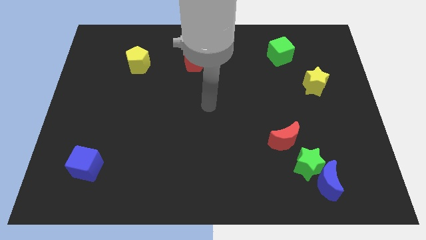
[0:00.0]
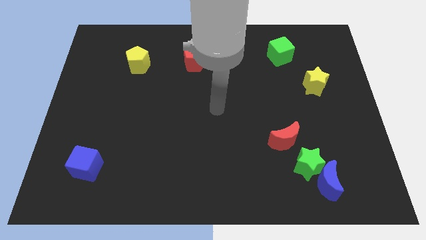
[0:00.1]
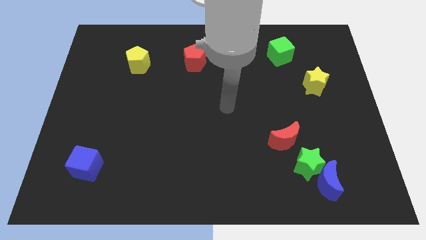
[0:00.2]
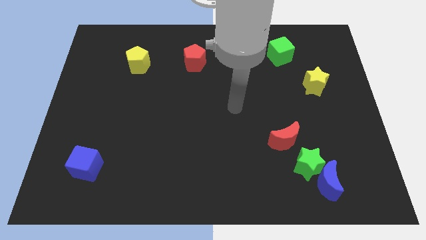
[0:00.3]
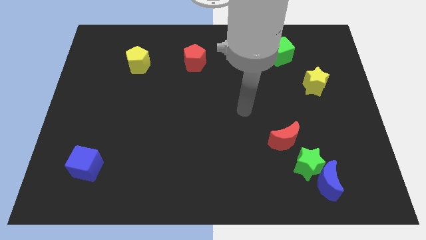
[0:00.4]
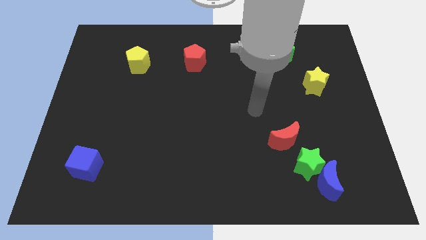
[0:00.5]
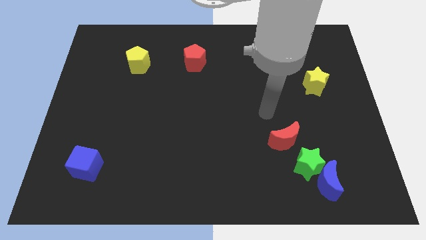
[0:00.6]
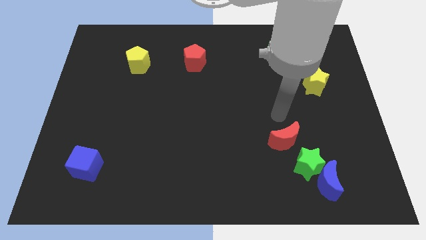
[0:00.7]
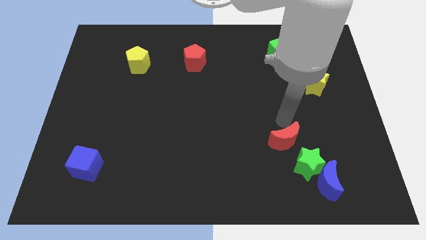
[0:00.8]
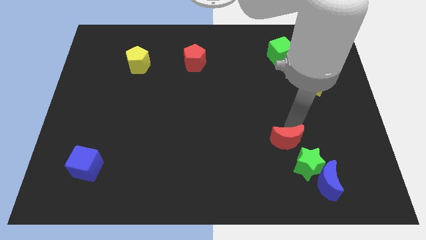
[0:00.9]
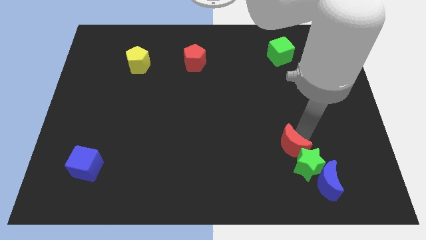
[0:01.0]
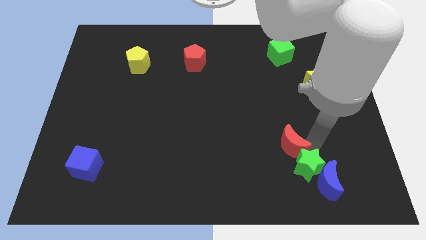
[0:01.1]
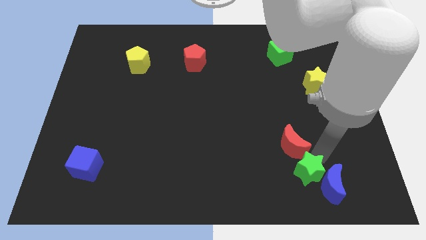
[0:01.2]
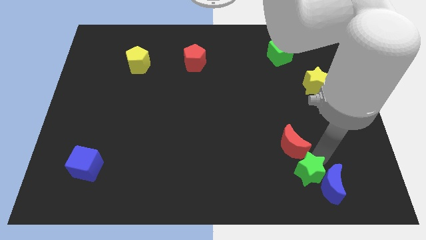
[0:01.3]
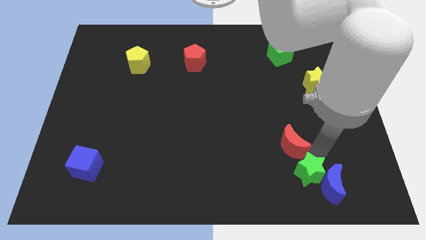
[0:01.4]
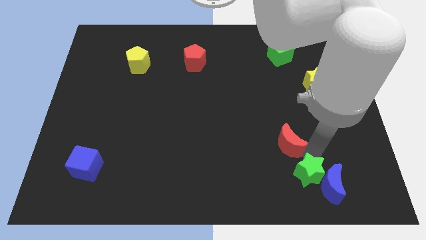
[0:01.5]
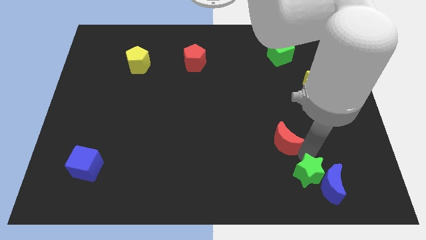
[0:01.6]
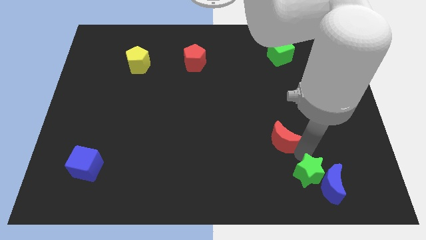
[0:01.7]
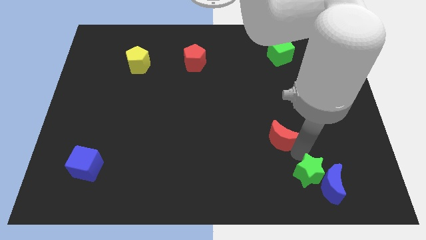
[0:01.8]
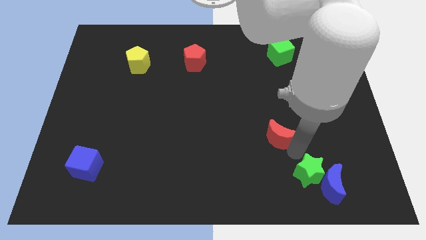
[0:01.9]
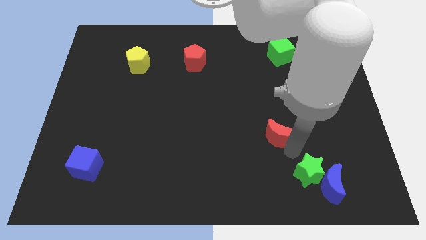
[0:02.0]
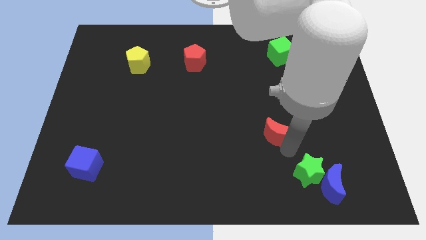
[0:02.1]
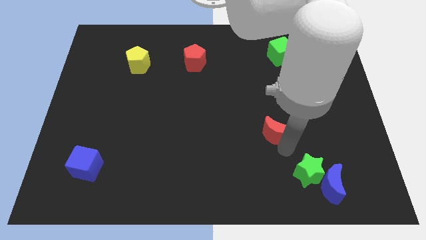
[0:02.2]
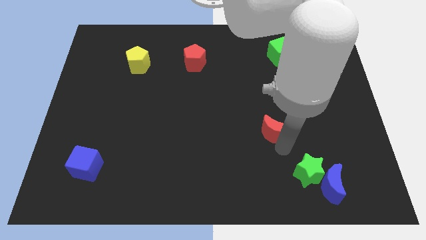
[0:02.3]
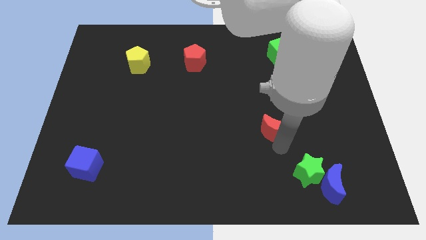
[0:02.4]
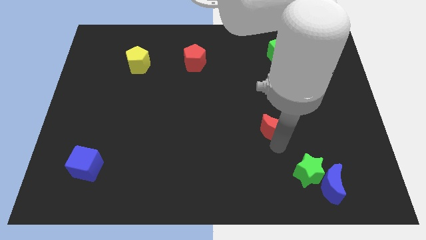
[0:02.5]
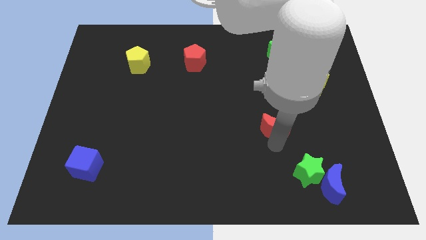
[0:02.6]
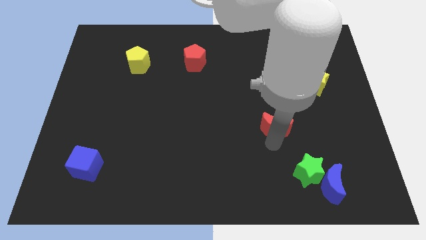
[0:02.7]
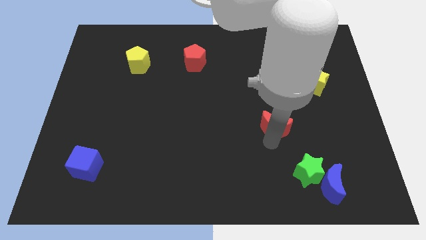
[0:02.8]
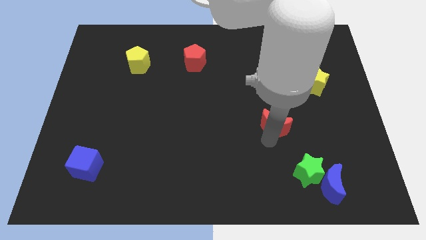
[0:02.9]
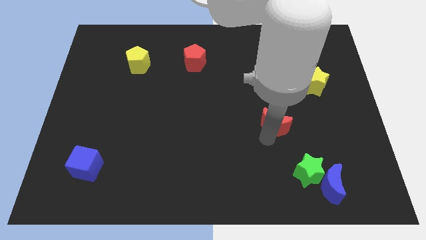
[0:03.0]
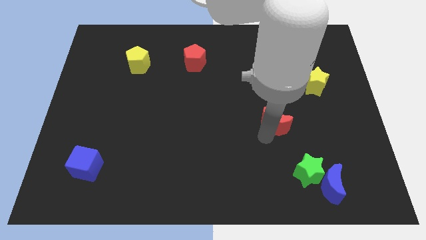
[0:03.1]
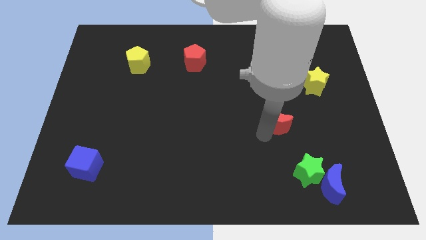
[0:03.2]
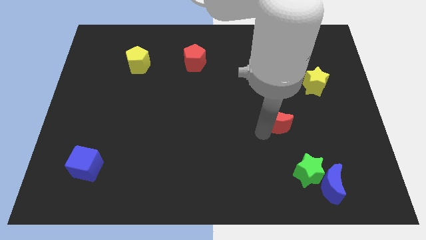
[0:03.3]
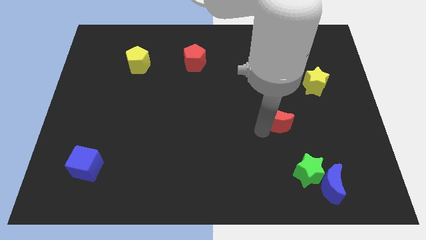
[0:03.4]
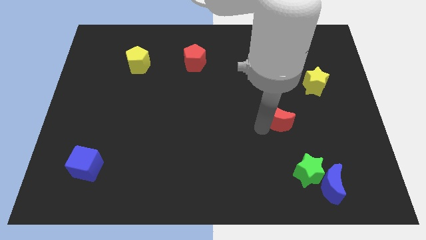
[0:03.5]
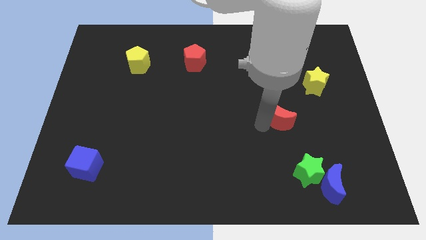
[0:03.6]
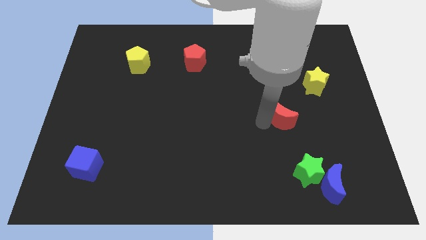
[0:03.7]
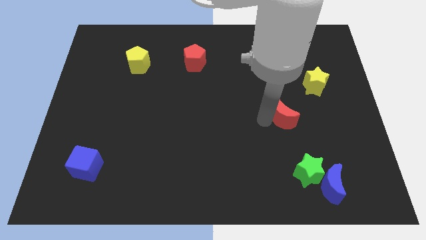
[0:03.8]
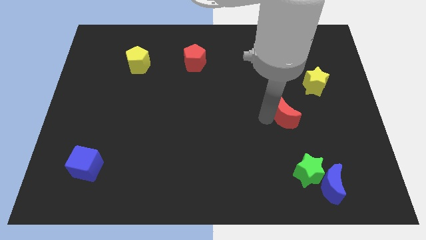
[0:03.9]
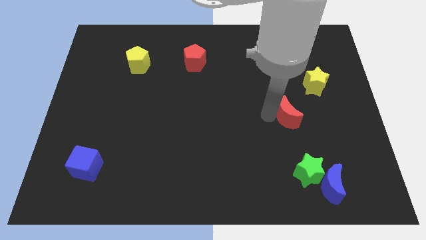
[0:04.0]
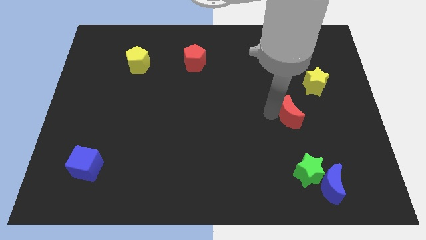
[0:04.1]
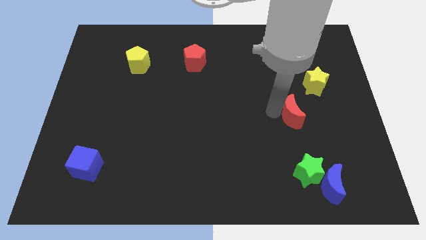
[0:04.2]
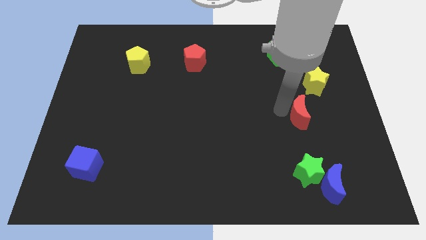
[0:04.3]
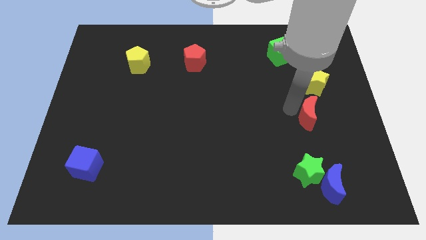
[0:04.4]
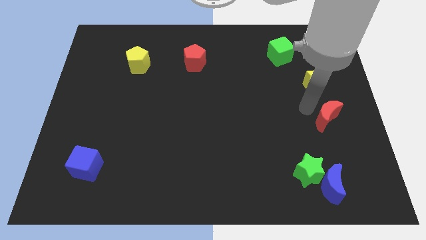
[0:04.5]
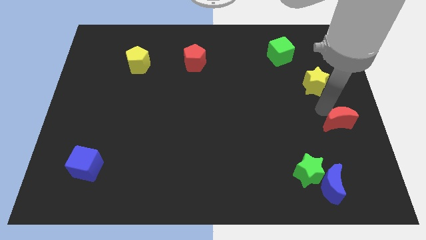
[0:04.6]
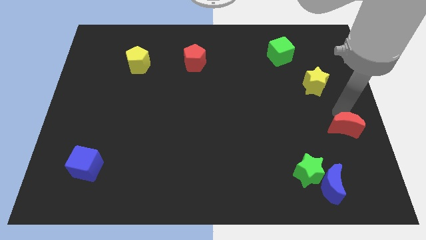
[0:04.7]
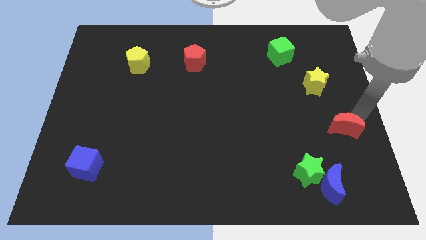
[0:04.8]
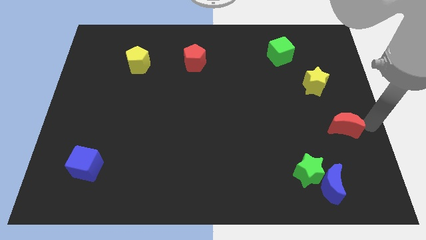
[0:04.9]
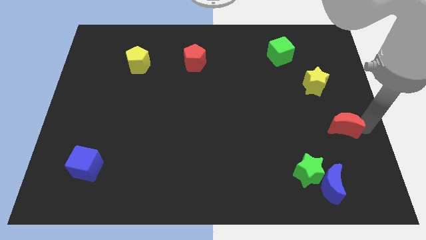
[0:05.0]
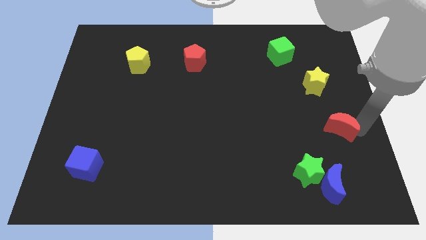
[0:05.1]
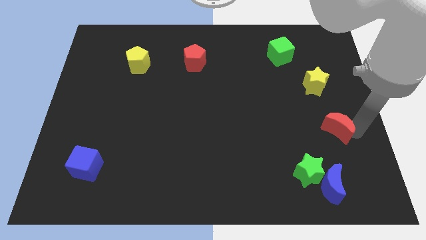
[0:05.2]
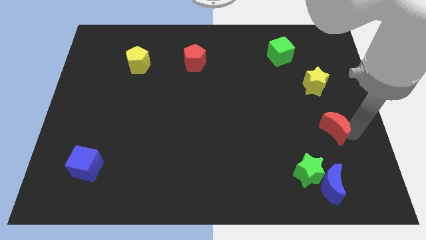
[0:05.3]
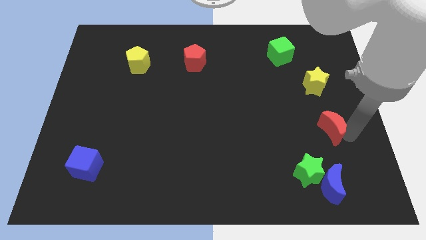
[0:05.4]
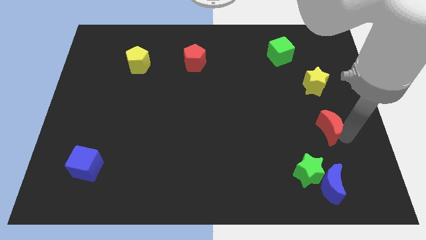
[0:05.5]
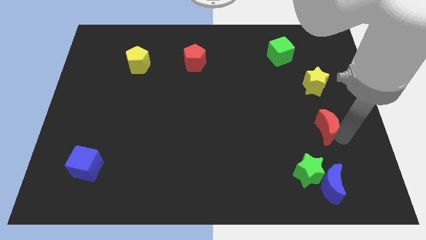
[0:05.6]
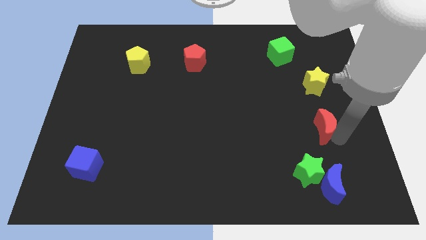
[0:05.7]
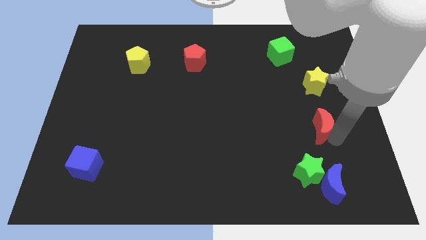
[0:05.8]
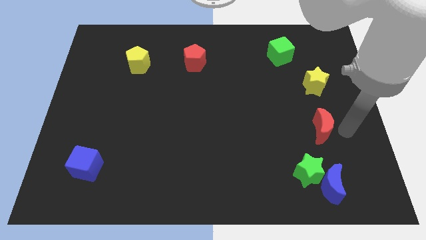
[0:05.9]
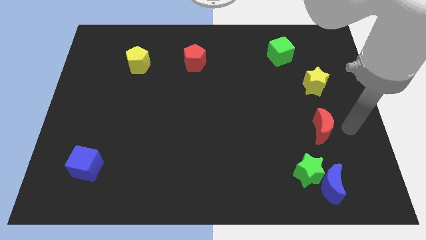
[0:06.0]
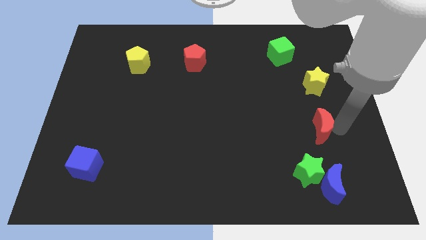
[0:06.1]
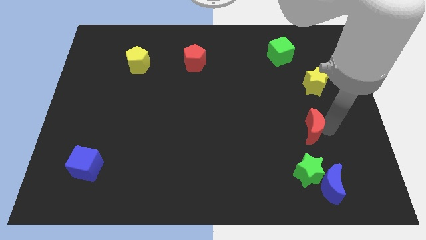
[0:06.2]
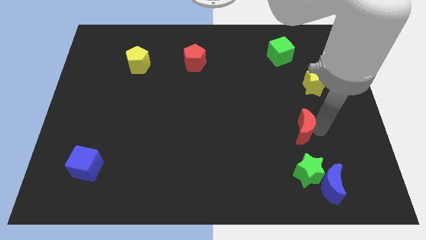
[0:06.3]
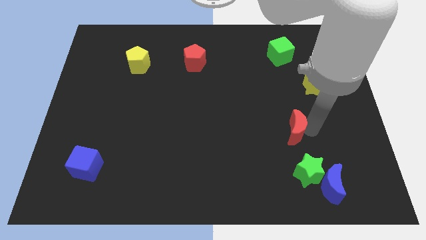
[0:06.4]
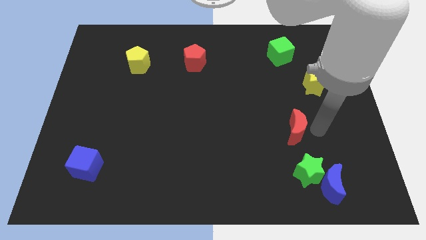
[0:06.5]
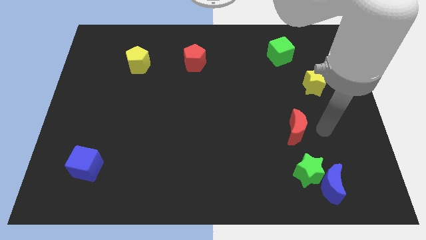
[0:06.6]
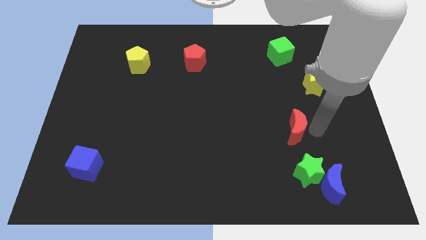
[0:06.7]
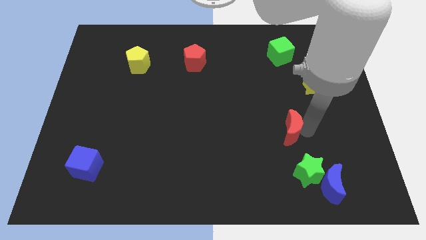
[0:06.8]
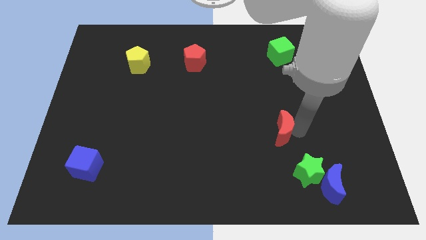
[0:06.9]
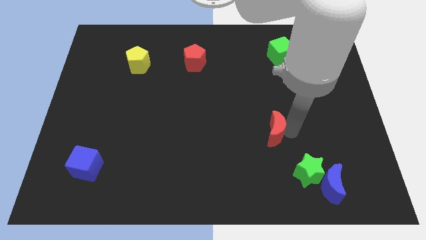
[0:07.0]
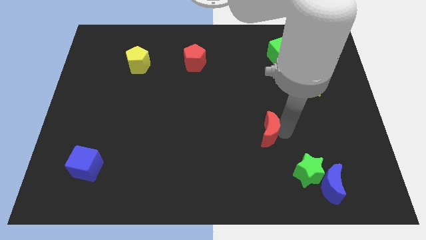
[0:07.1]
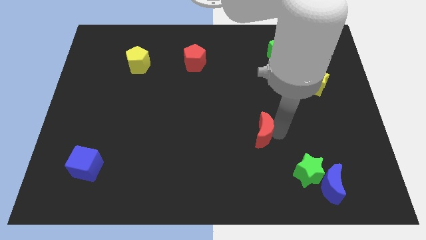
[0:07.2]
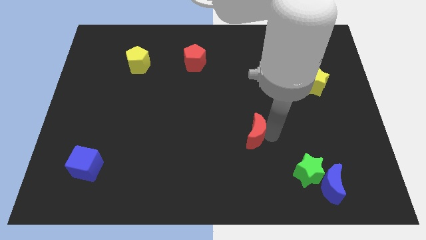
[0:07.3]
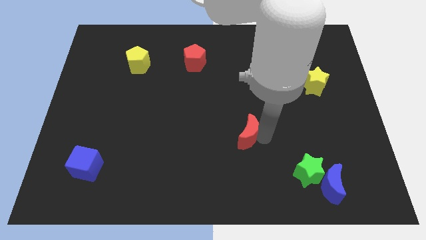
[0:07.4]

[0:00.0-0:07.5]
put the red moon to the middle of the board
